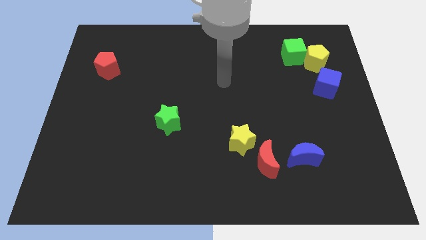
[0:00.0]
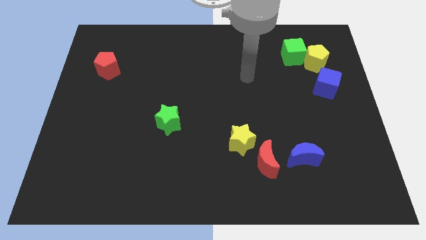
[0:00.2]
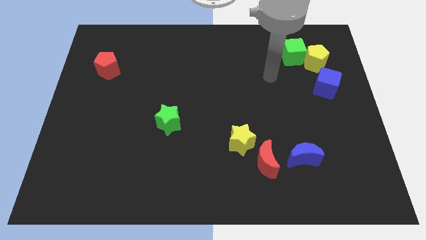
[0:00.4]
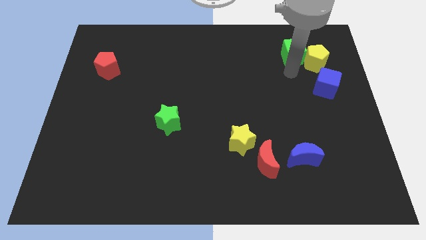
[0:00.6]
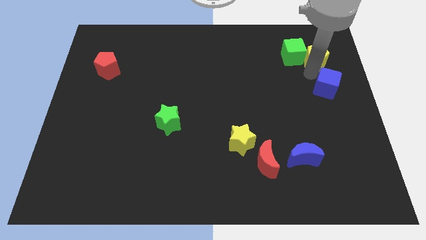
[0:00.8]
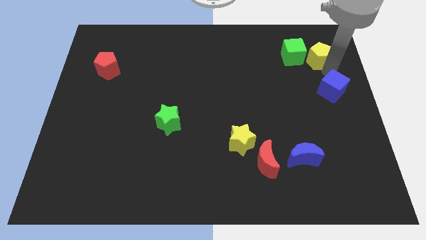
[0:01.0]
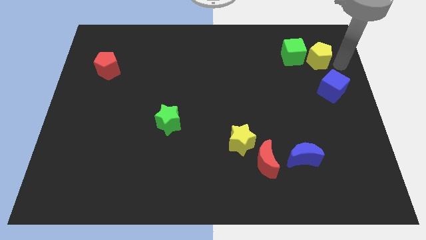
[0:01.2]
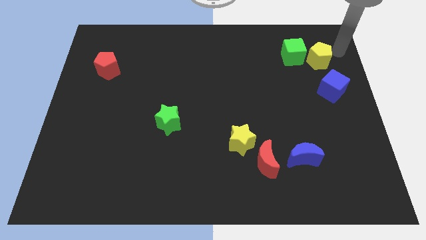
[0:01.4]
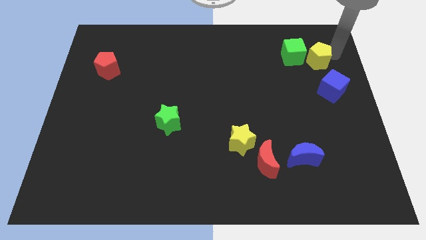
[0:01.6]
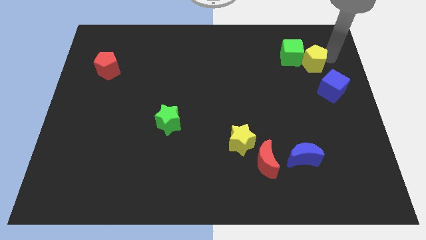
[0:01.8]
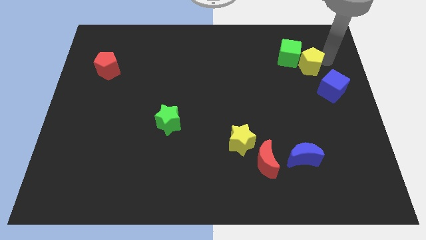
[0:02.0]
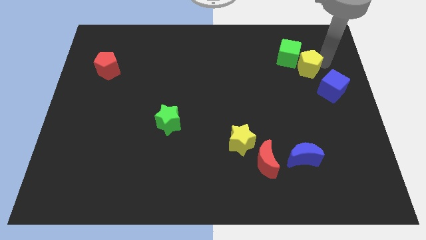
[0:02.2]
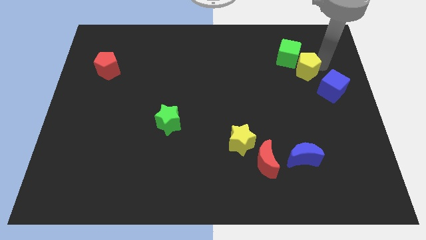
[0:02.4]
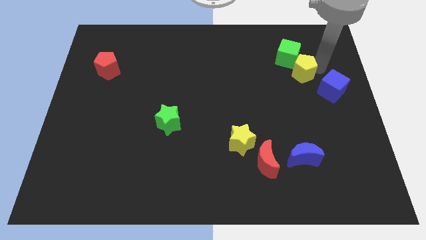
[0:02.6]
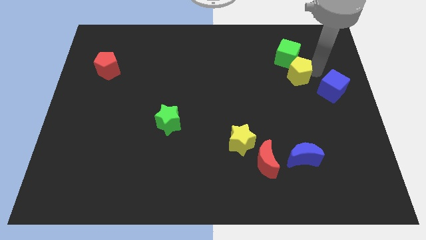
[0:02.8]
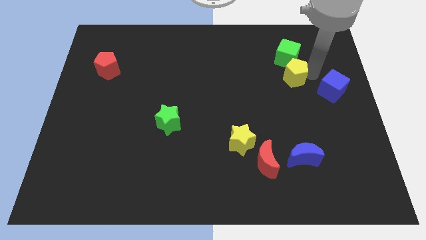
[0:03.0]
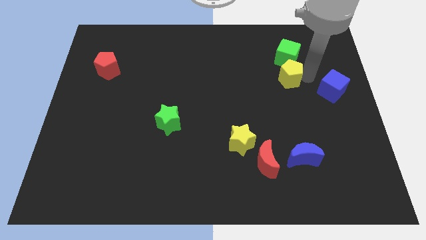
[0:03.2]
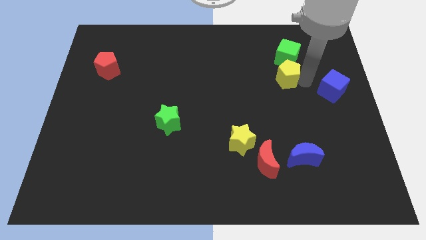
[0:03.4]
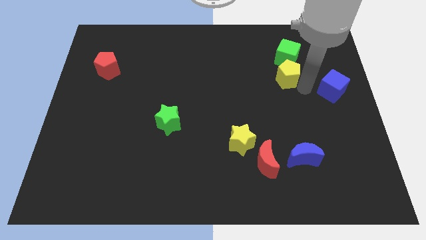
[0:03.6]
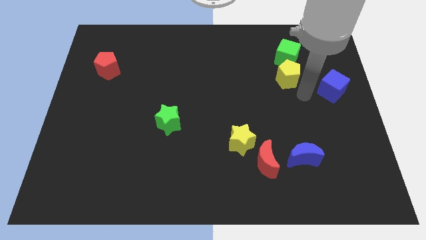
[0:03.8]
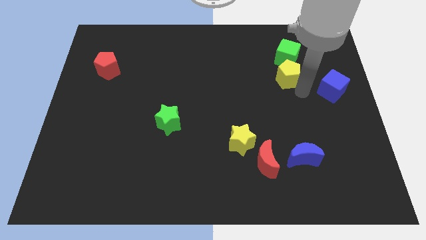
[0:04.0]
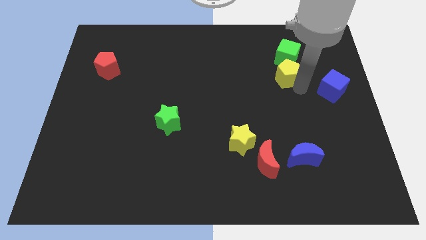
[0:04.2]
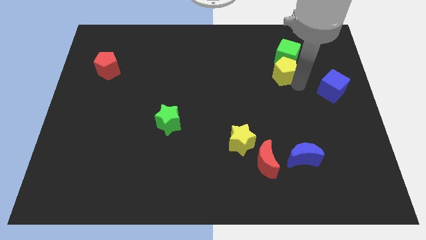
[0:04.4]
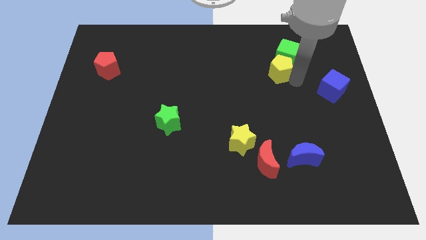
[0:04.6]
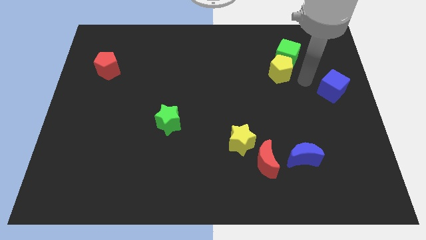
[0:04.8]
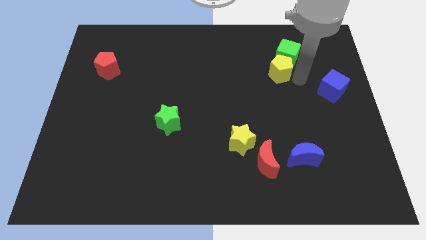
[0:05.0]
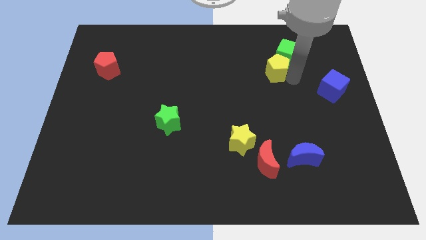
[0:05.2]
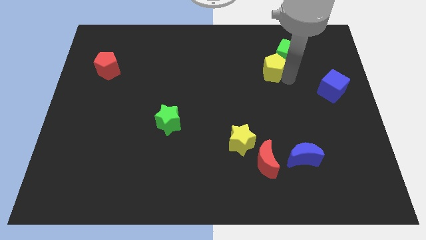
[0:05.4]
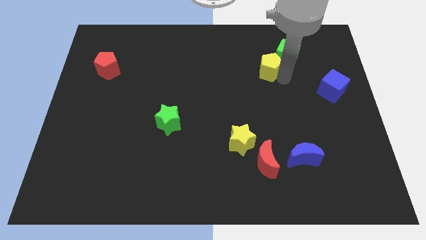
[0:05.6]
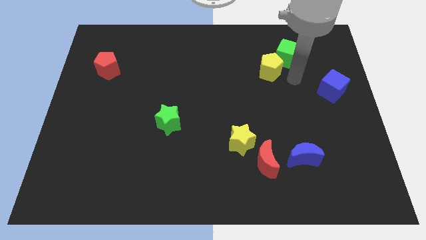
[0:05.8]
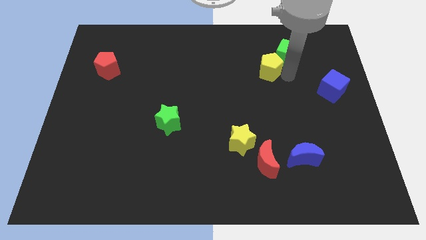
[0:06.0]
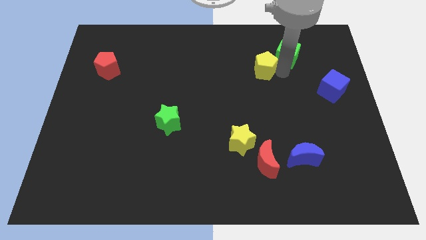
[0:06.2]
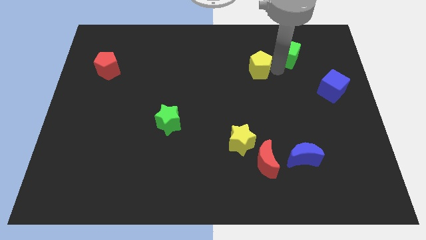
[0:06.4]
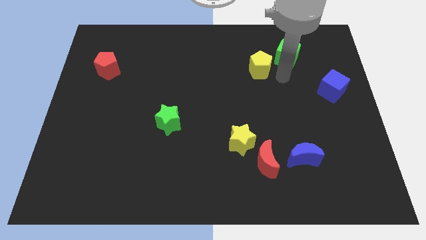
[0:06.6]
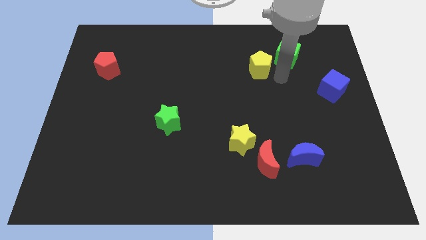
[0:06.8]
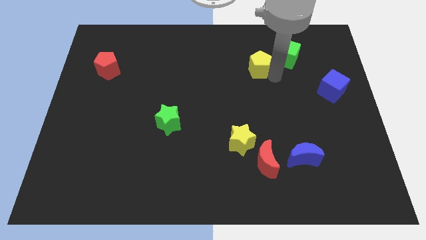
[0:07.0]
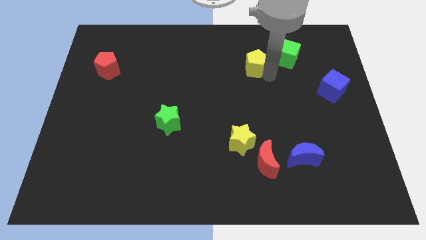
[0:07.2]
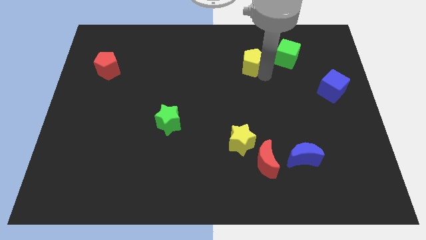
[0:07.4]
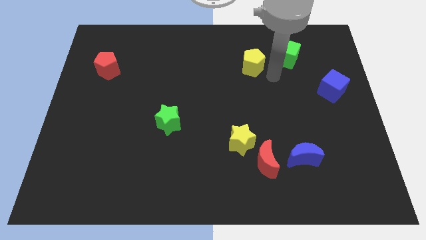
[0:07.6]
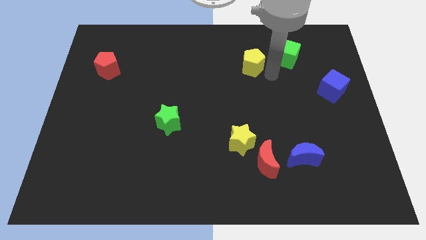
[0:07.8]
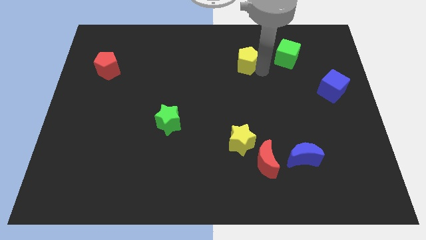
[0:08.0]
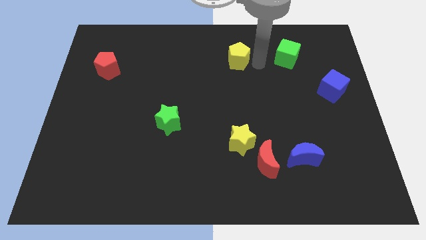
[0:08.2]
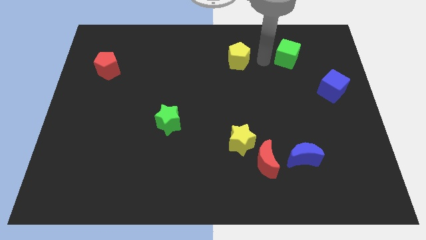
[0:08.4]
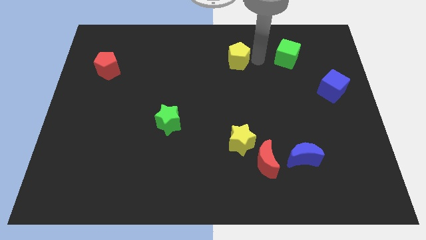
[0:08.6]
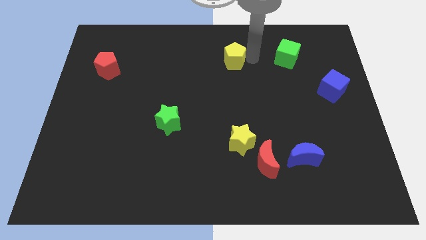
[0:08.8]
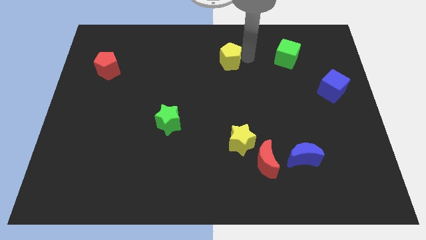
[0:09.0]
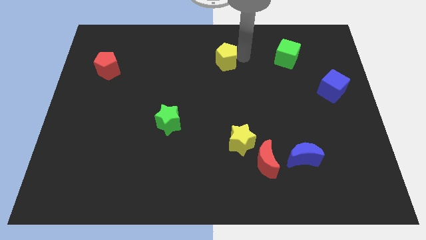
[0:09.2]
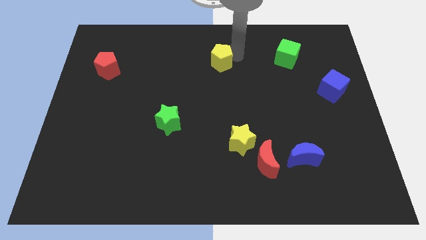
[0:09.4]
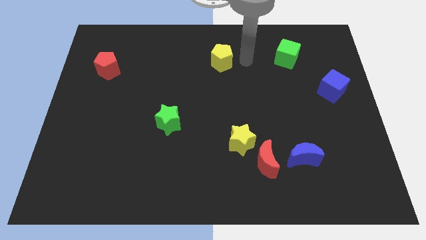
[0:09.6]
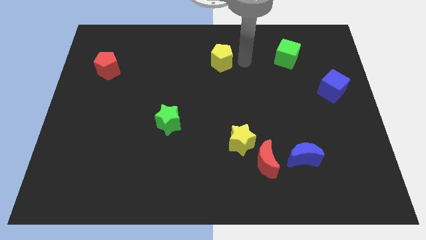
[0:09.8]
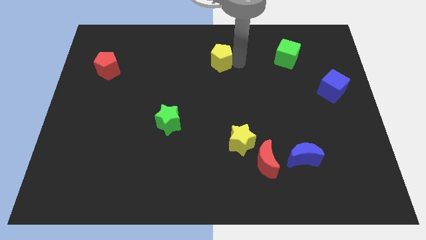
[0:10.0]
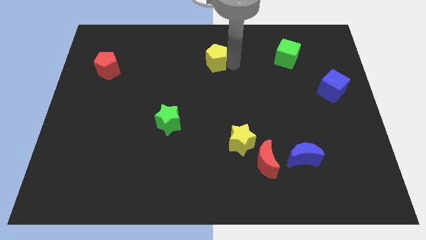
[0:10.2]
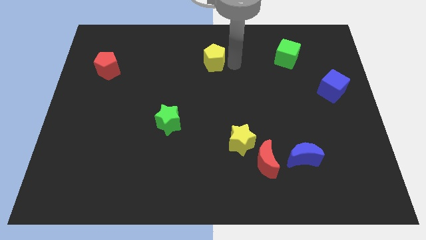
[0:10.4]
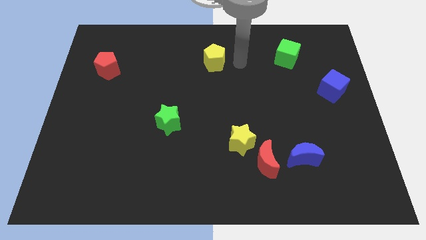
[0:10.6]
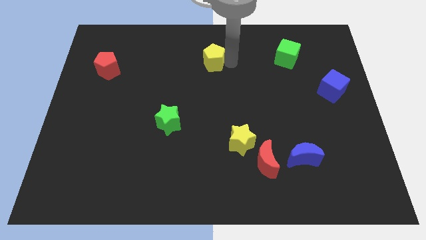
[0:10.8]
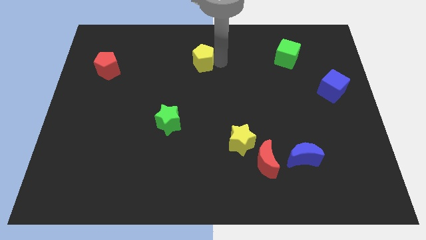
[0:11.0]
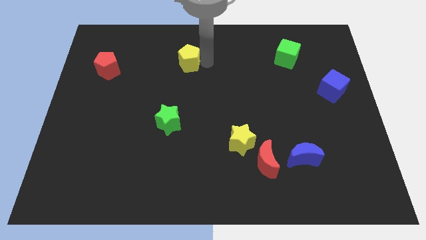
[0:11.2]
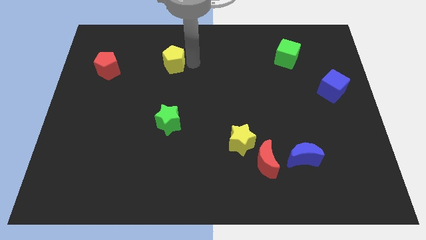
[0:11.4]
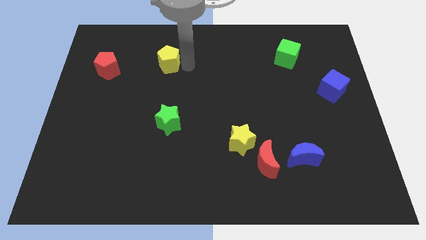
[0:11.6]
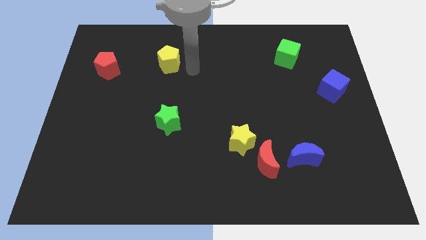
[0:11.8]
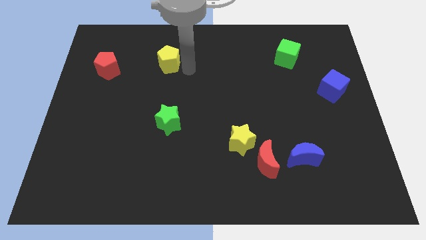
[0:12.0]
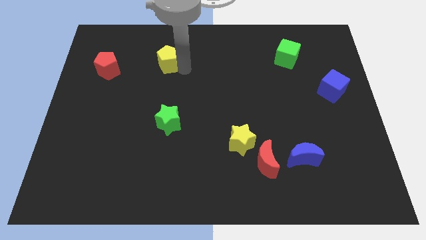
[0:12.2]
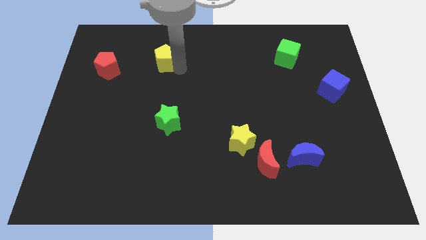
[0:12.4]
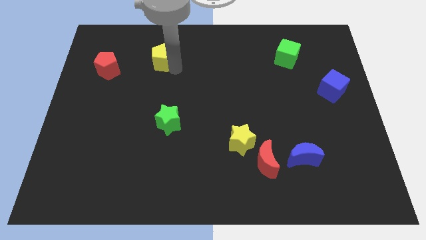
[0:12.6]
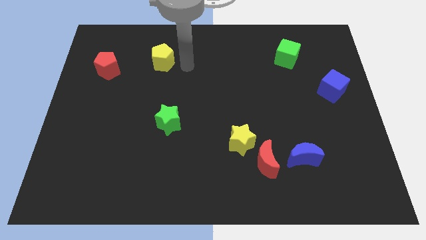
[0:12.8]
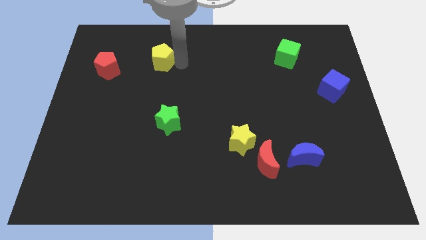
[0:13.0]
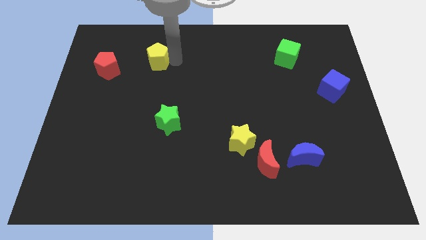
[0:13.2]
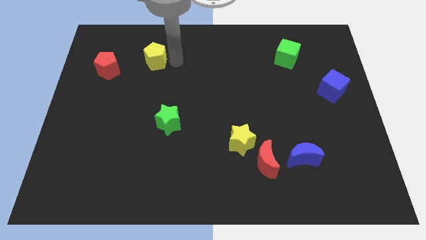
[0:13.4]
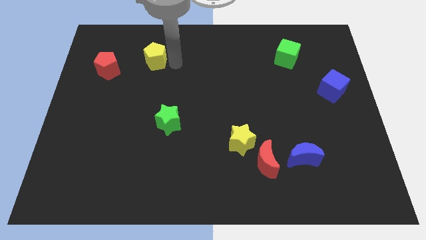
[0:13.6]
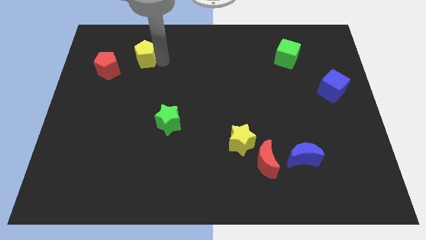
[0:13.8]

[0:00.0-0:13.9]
move the yellow pentagon to the top right side of the red pentagon

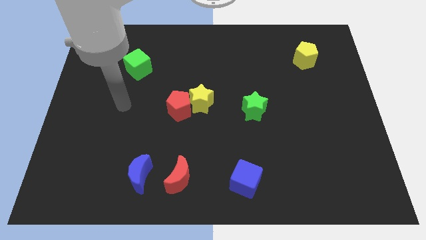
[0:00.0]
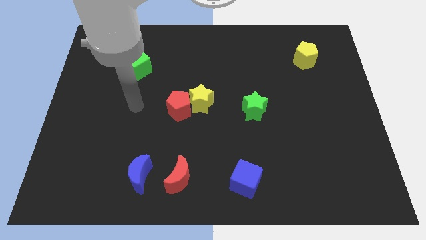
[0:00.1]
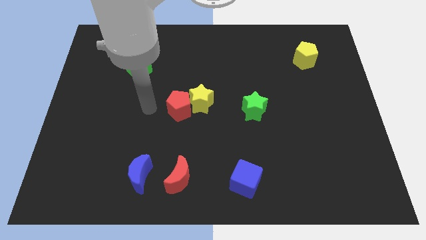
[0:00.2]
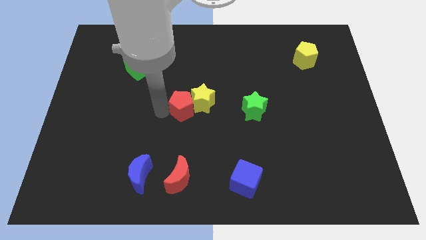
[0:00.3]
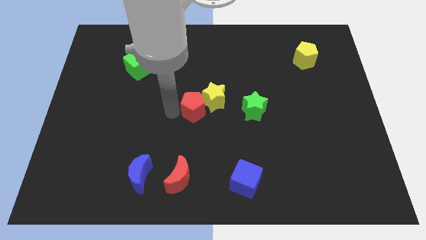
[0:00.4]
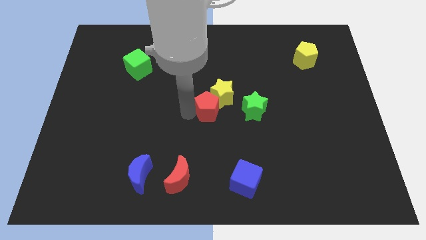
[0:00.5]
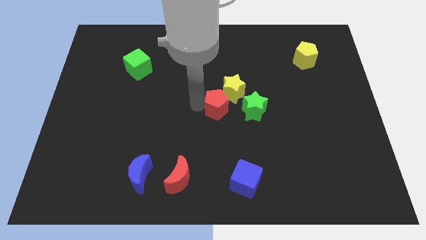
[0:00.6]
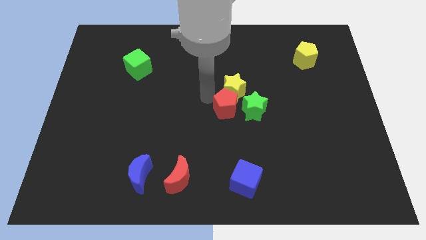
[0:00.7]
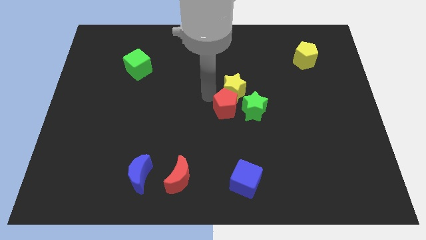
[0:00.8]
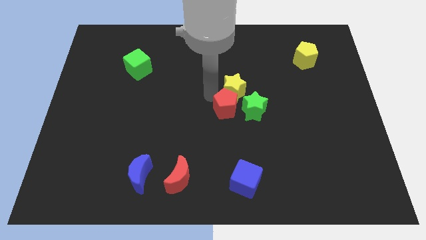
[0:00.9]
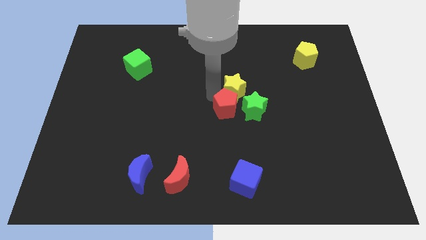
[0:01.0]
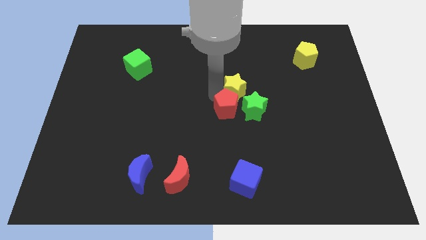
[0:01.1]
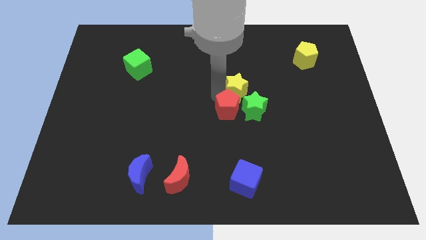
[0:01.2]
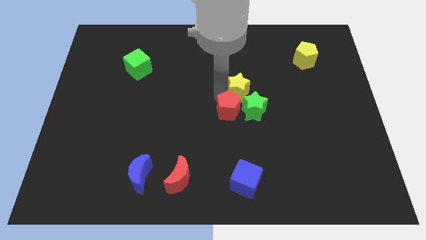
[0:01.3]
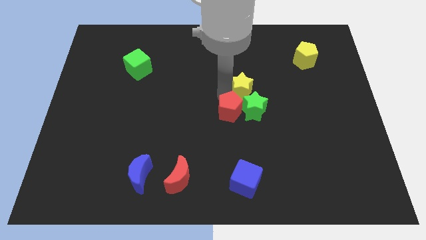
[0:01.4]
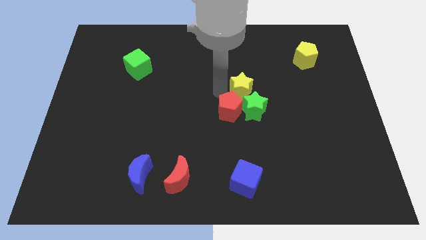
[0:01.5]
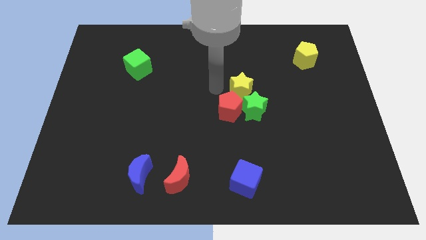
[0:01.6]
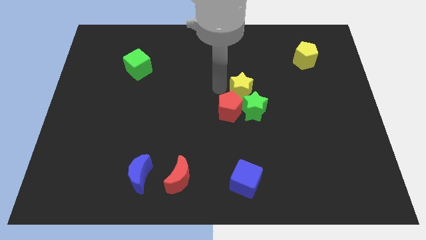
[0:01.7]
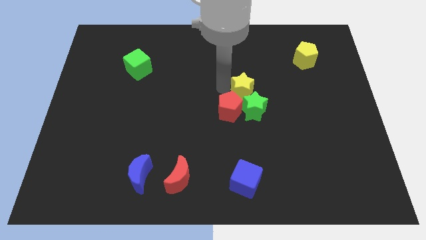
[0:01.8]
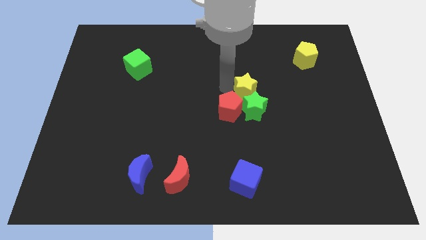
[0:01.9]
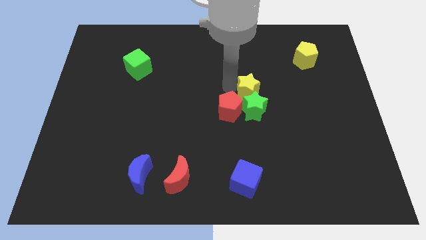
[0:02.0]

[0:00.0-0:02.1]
put the yellow star to the top right side of the green star
